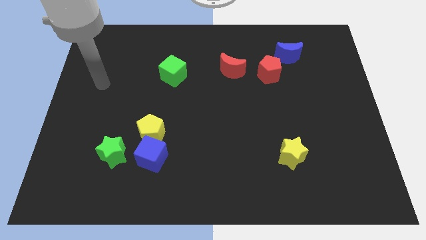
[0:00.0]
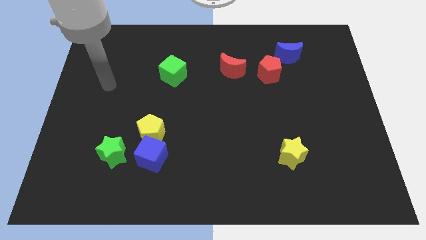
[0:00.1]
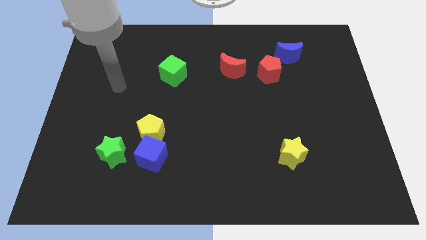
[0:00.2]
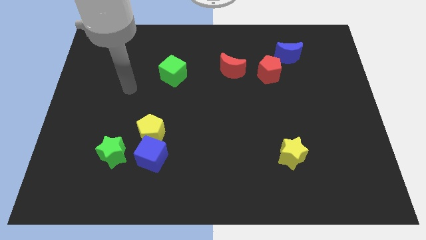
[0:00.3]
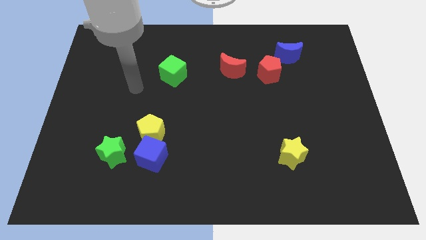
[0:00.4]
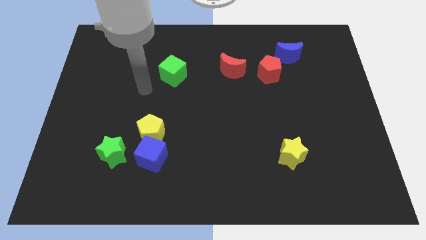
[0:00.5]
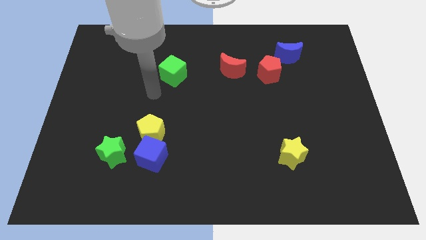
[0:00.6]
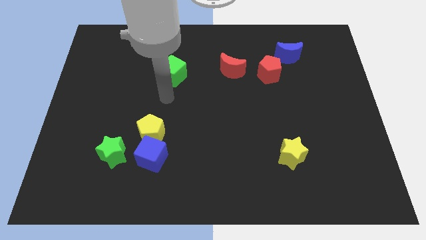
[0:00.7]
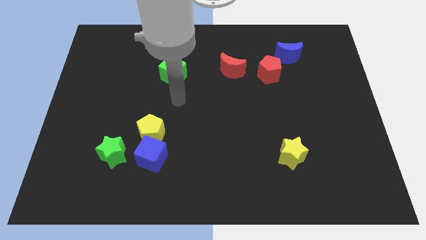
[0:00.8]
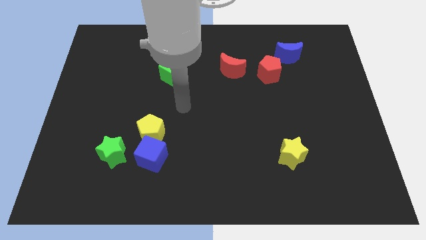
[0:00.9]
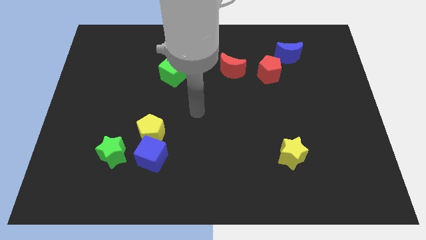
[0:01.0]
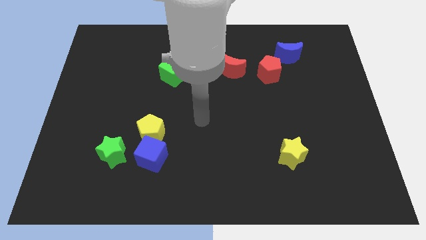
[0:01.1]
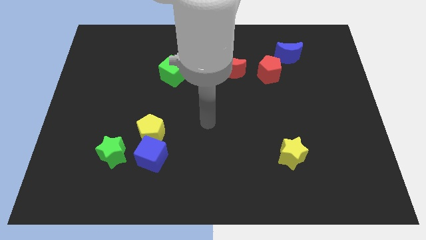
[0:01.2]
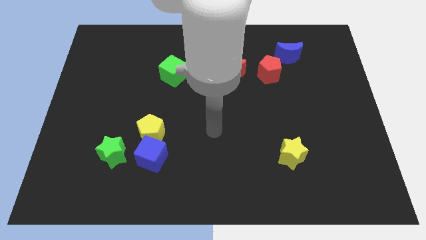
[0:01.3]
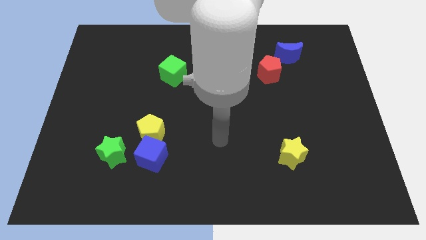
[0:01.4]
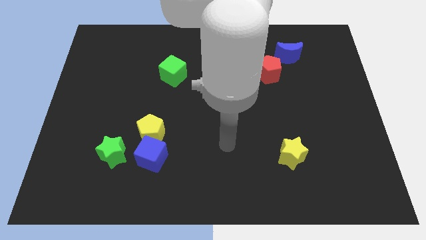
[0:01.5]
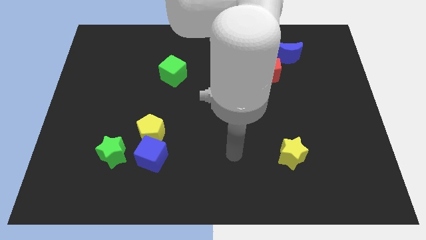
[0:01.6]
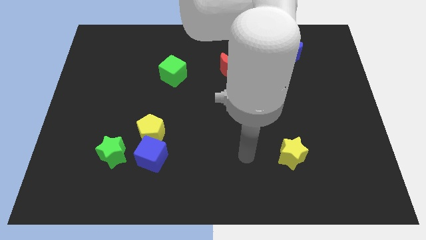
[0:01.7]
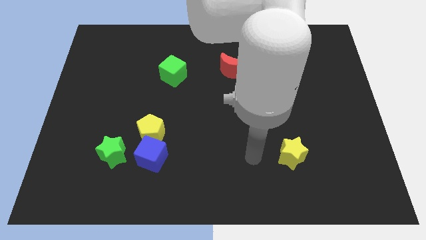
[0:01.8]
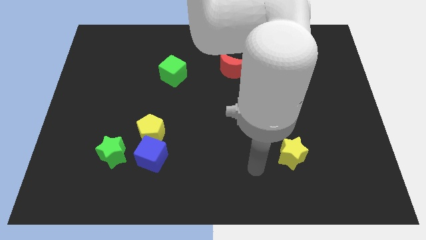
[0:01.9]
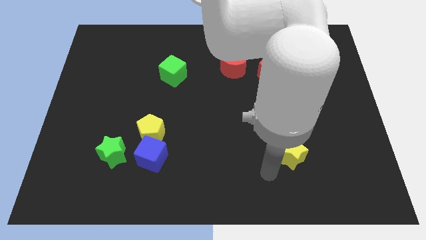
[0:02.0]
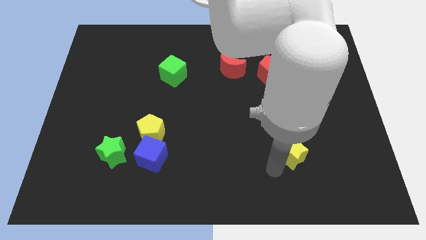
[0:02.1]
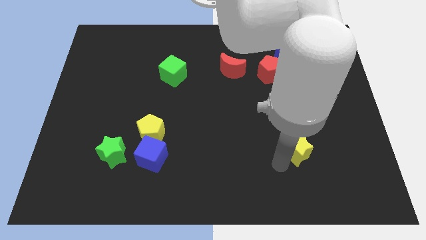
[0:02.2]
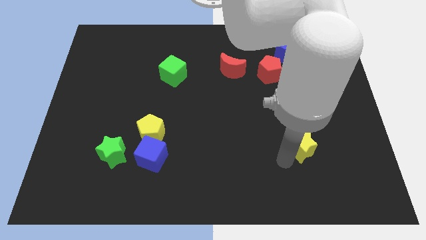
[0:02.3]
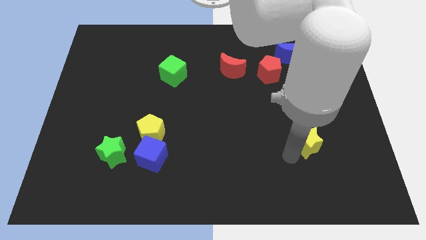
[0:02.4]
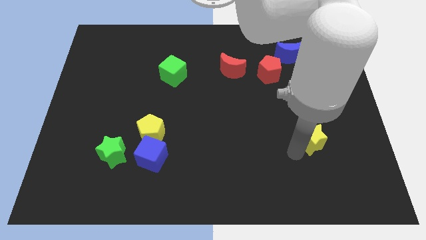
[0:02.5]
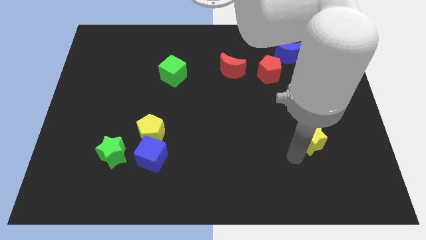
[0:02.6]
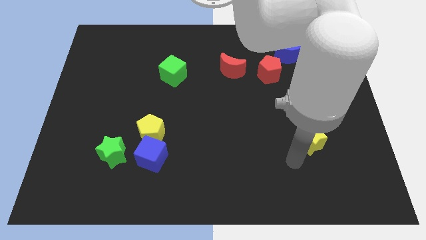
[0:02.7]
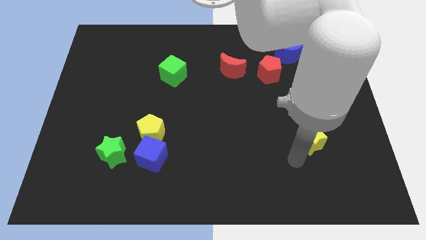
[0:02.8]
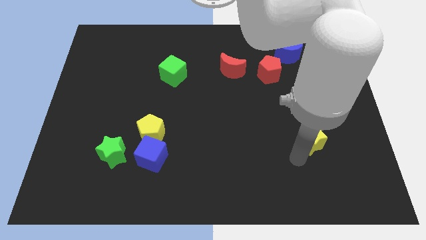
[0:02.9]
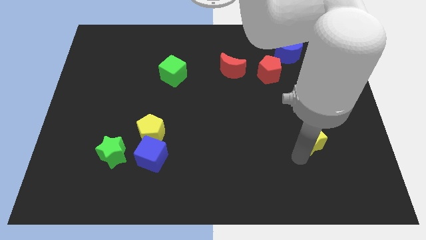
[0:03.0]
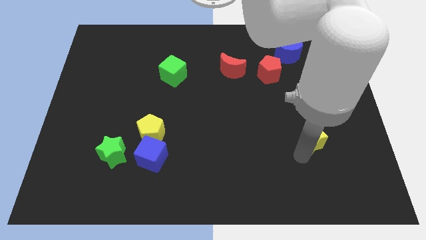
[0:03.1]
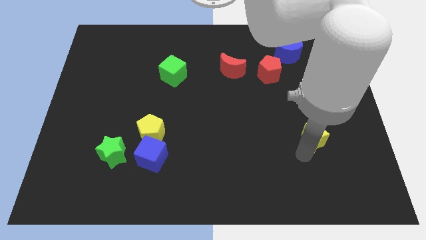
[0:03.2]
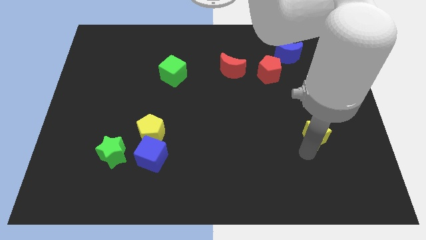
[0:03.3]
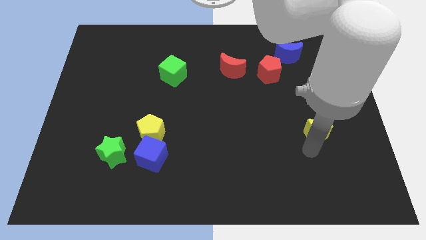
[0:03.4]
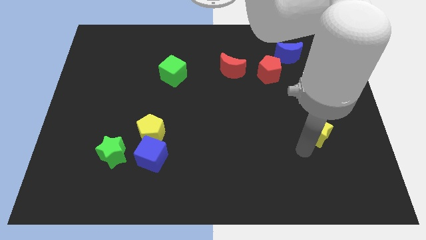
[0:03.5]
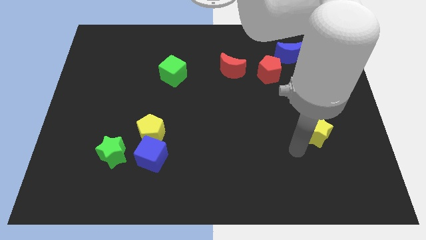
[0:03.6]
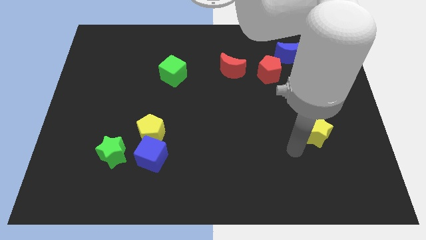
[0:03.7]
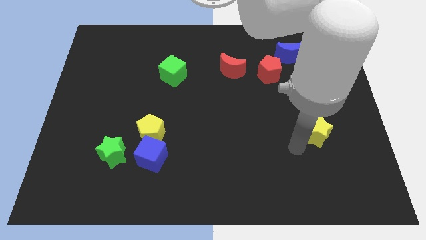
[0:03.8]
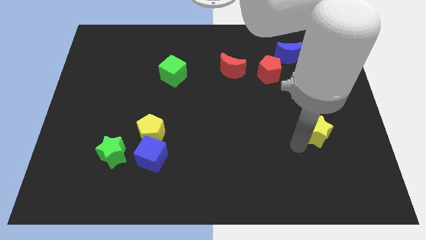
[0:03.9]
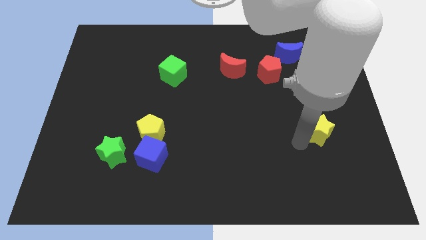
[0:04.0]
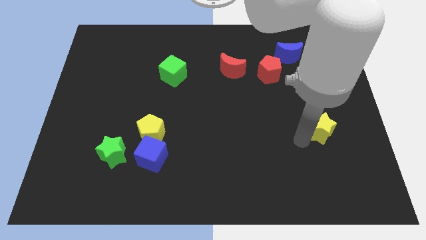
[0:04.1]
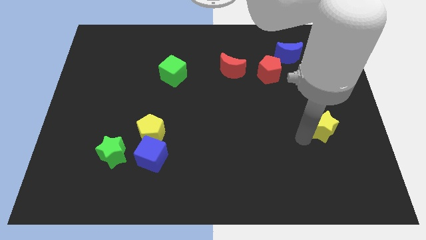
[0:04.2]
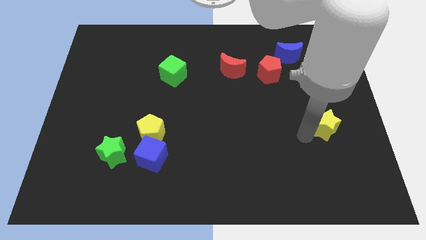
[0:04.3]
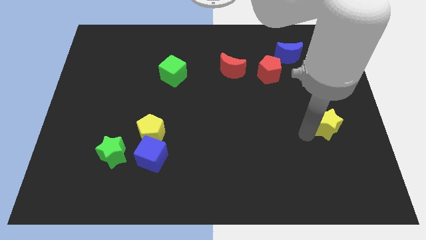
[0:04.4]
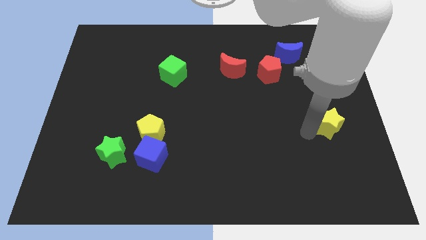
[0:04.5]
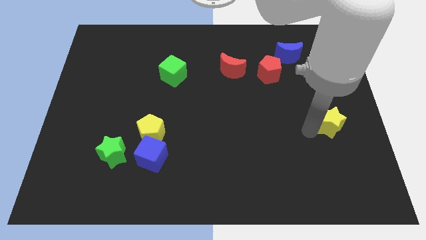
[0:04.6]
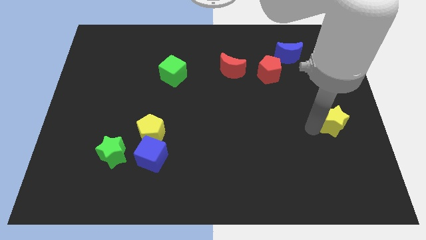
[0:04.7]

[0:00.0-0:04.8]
push the yellow star to the right side of the board

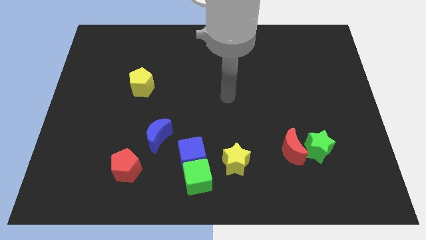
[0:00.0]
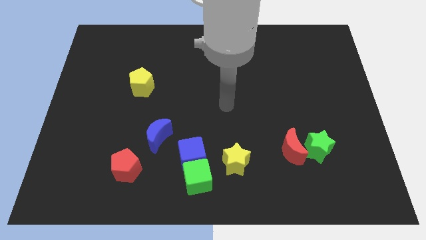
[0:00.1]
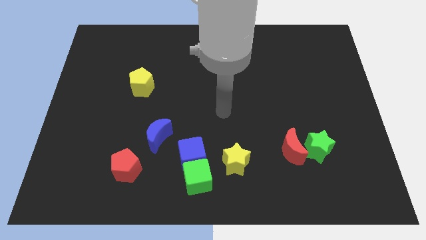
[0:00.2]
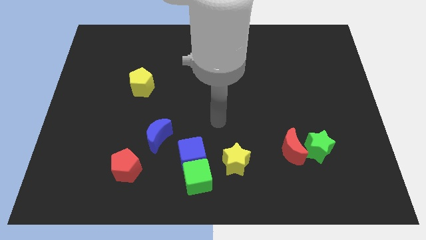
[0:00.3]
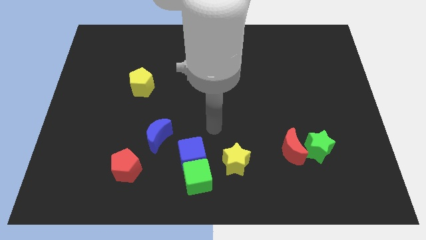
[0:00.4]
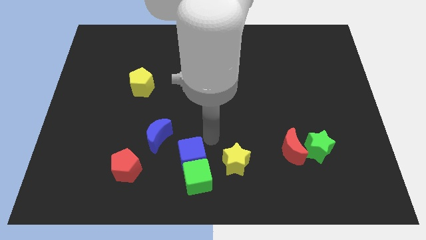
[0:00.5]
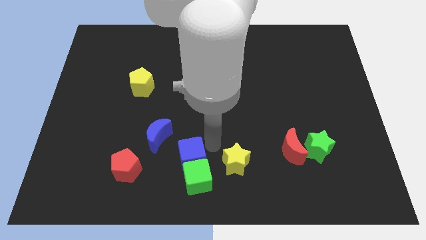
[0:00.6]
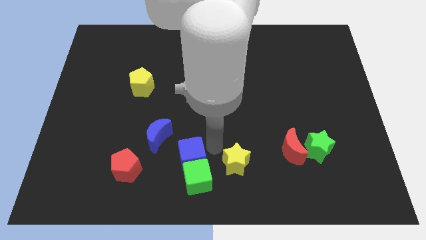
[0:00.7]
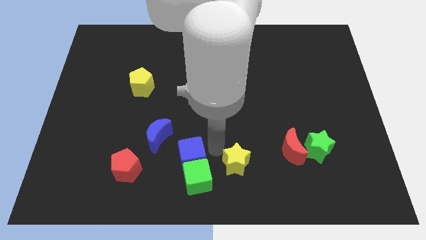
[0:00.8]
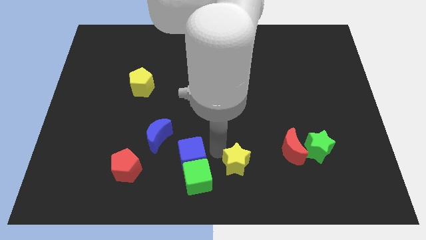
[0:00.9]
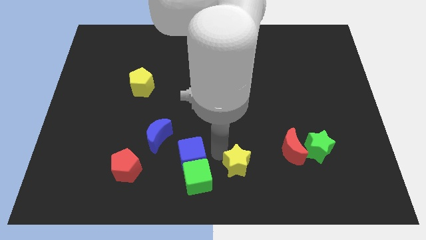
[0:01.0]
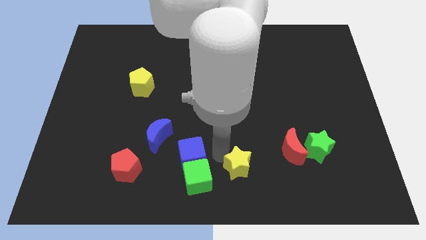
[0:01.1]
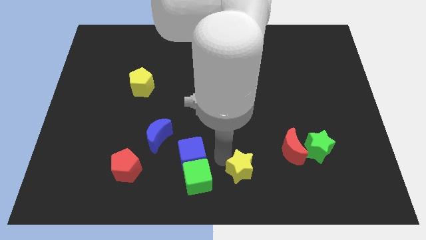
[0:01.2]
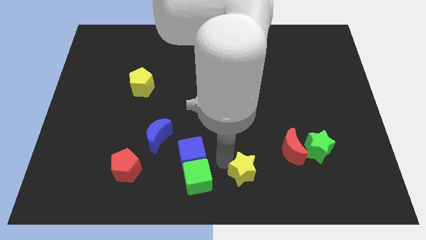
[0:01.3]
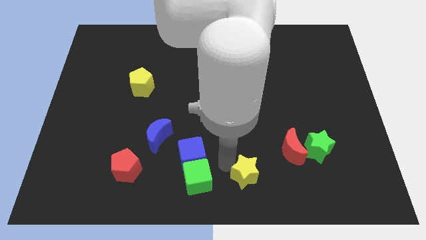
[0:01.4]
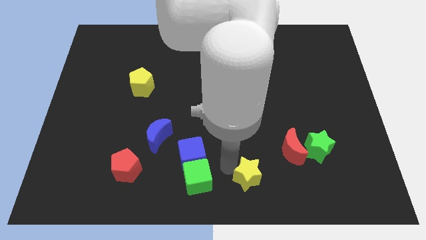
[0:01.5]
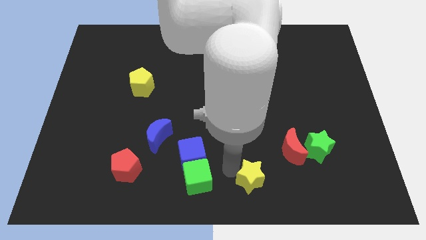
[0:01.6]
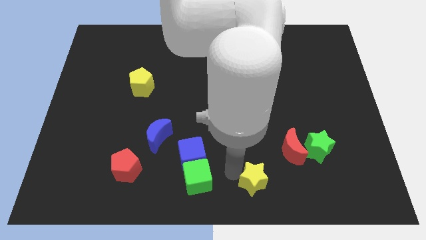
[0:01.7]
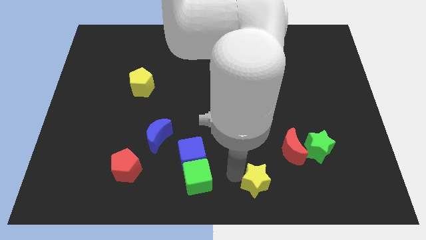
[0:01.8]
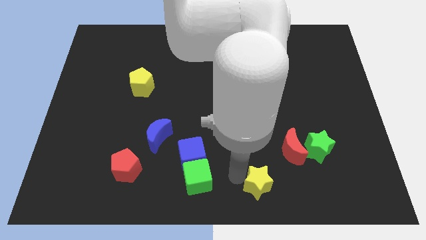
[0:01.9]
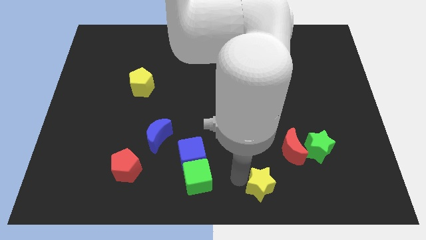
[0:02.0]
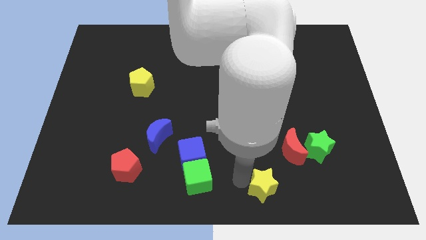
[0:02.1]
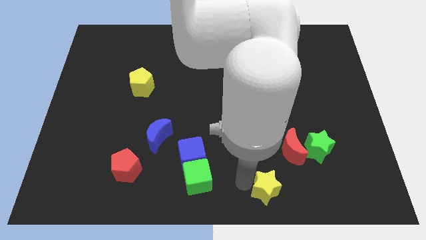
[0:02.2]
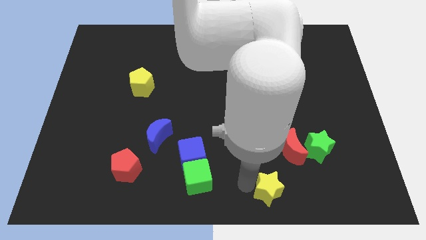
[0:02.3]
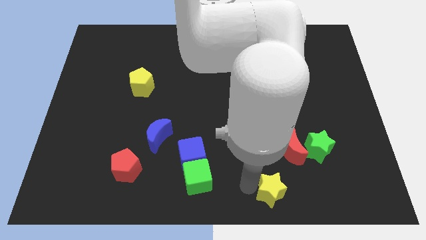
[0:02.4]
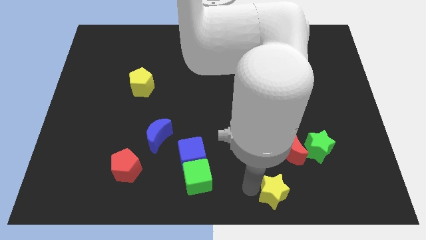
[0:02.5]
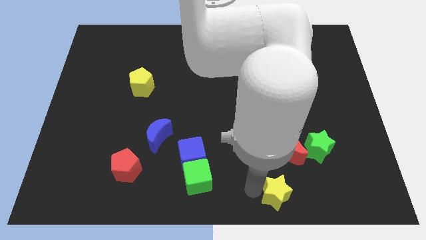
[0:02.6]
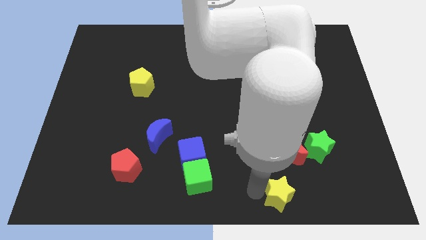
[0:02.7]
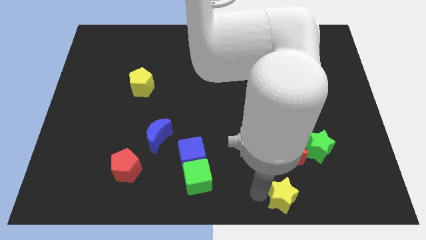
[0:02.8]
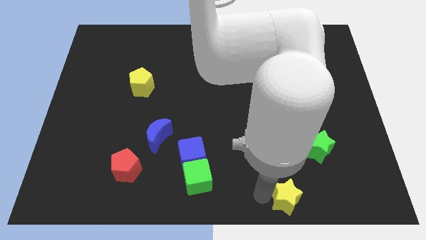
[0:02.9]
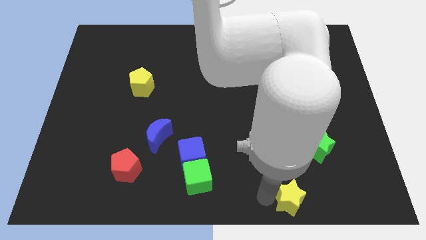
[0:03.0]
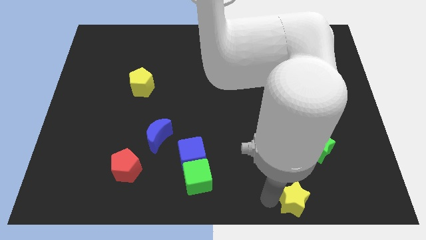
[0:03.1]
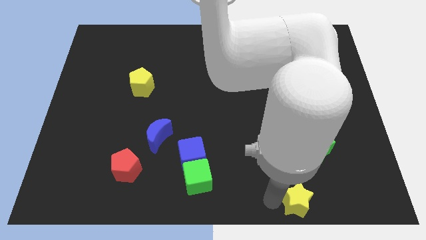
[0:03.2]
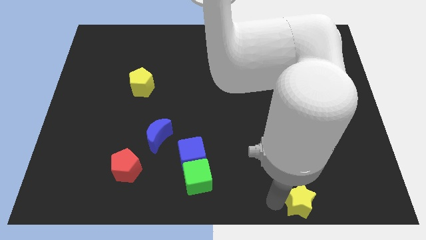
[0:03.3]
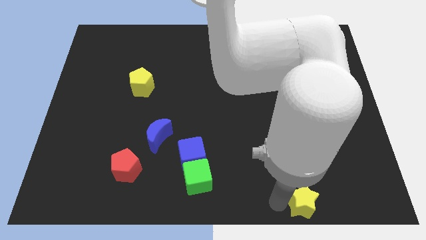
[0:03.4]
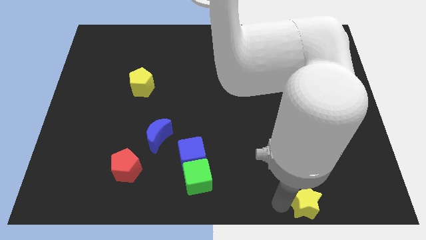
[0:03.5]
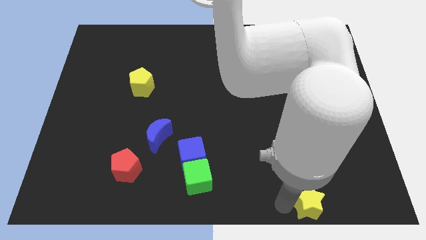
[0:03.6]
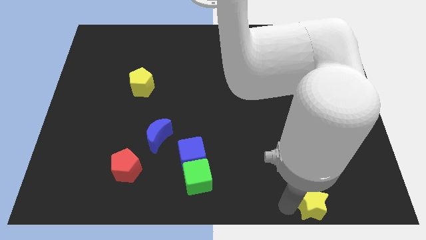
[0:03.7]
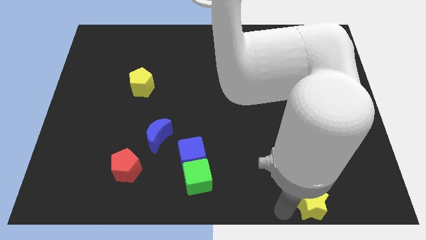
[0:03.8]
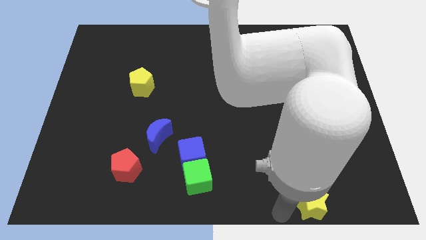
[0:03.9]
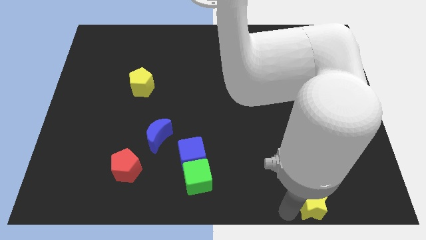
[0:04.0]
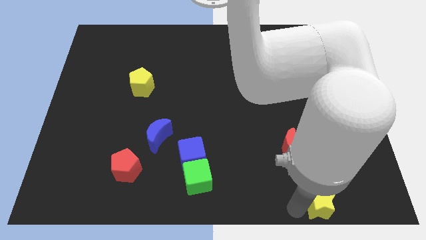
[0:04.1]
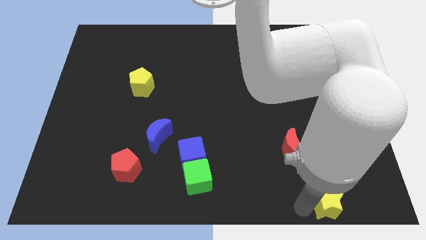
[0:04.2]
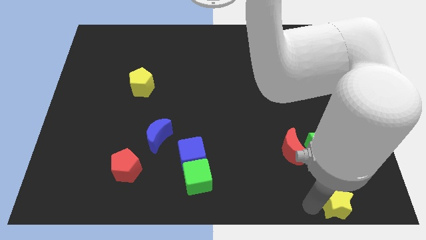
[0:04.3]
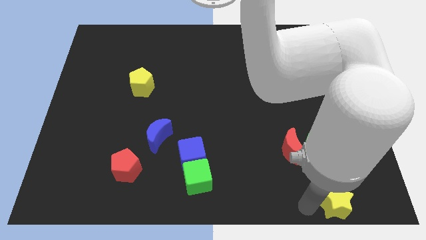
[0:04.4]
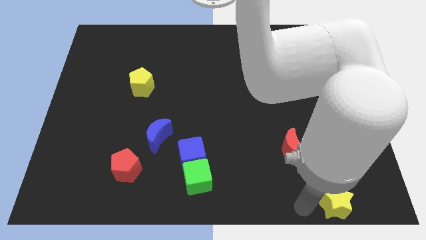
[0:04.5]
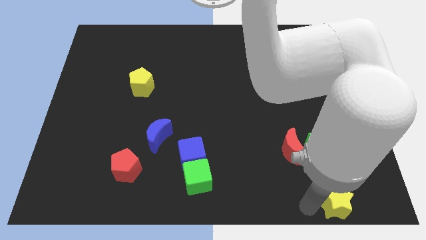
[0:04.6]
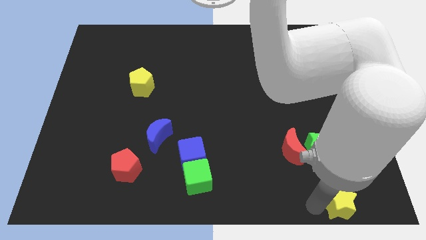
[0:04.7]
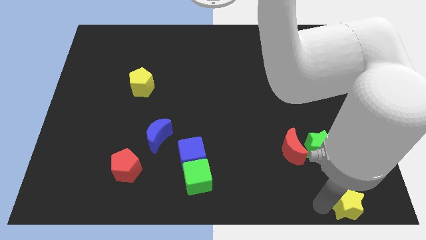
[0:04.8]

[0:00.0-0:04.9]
move the yellow star to the bottom right
